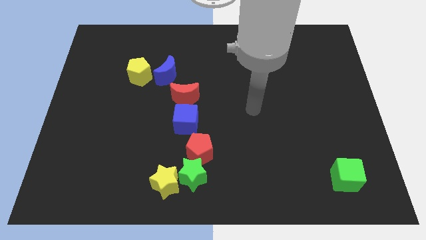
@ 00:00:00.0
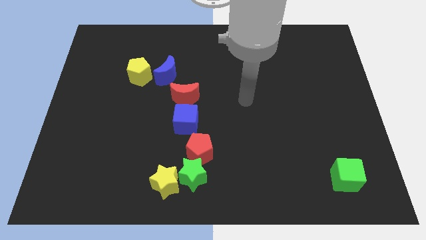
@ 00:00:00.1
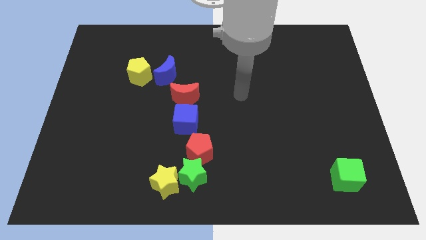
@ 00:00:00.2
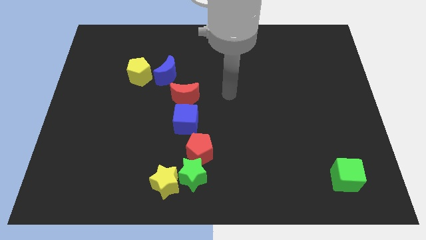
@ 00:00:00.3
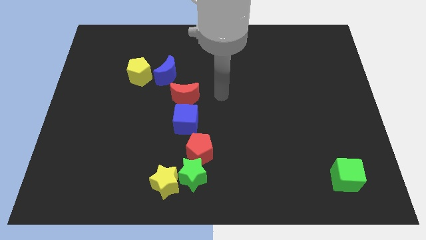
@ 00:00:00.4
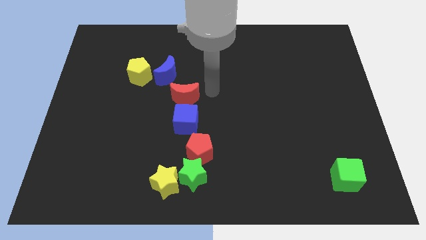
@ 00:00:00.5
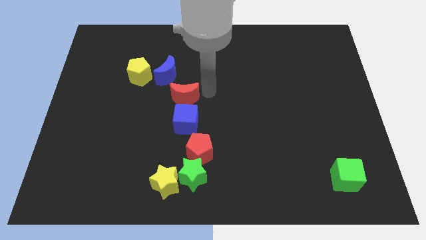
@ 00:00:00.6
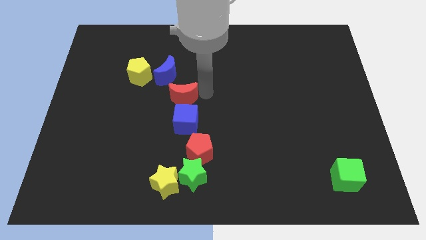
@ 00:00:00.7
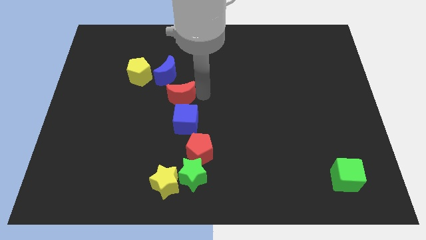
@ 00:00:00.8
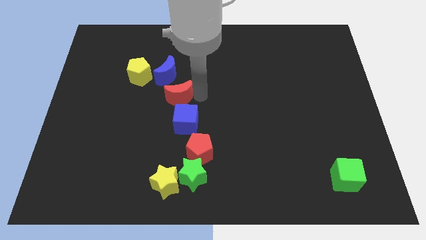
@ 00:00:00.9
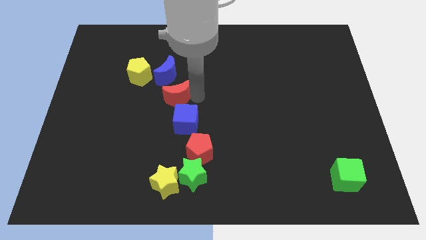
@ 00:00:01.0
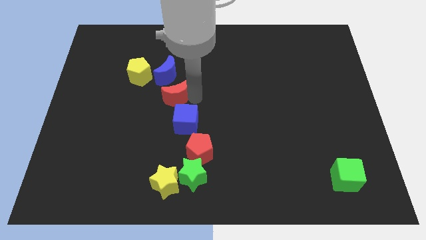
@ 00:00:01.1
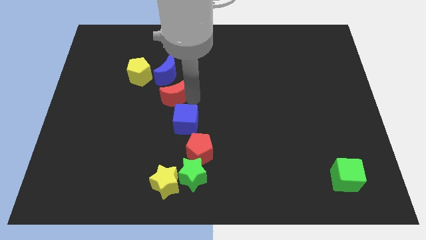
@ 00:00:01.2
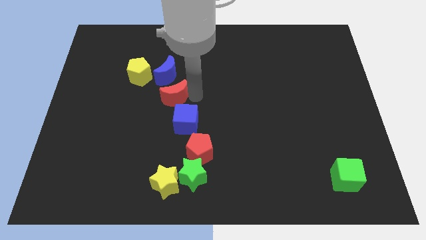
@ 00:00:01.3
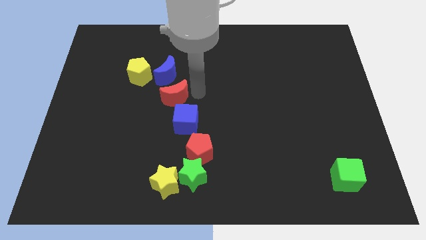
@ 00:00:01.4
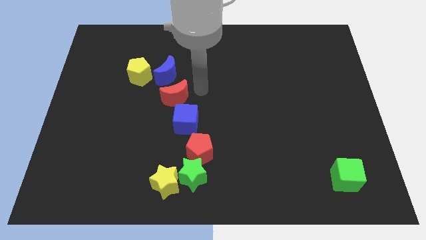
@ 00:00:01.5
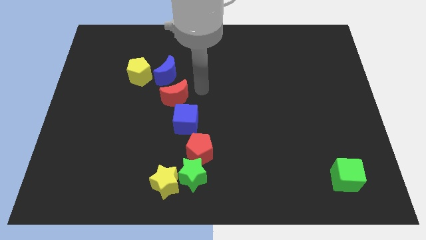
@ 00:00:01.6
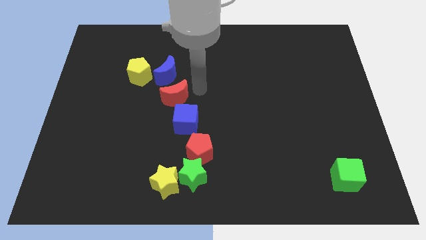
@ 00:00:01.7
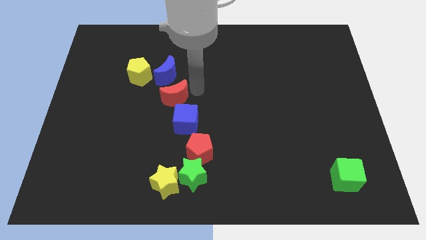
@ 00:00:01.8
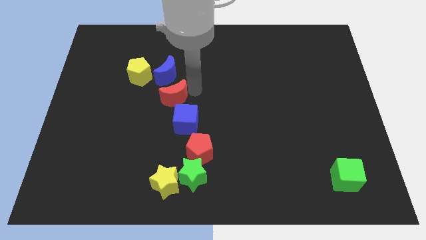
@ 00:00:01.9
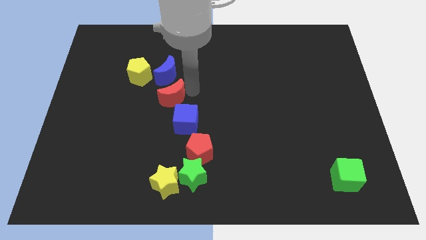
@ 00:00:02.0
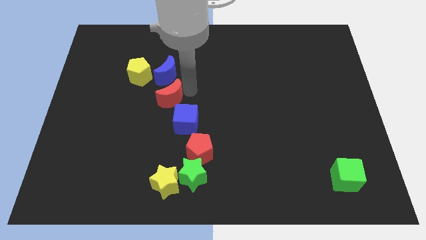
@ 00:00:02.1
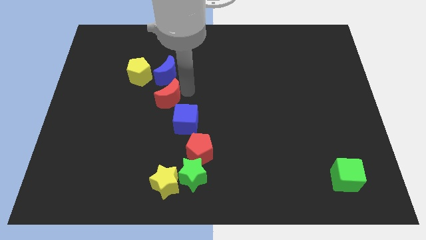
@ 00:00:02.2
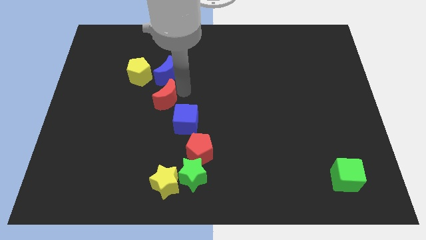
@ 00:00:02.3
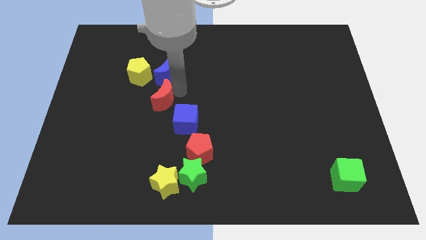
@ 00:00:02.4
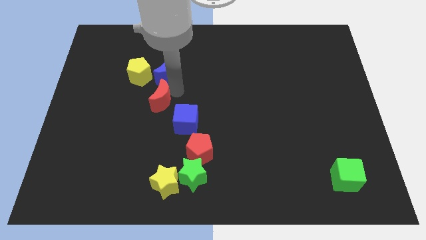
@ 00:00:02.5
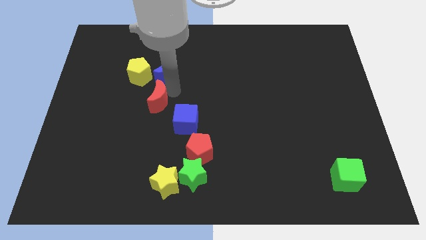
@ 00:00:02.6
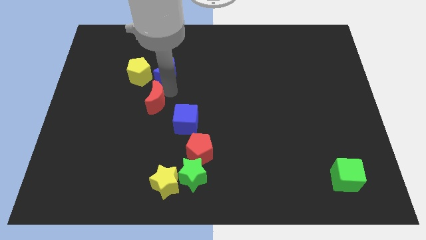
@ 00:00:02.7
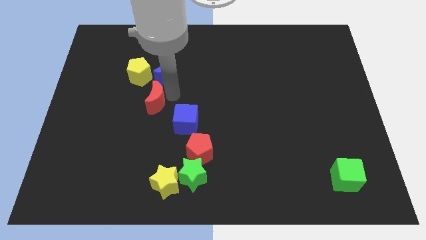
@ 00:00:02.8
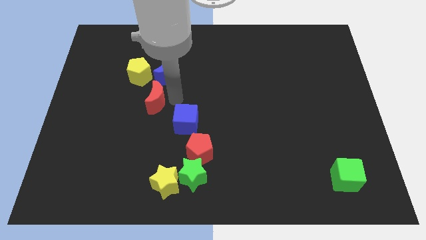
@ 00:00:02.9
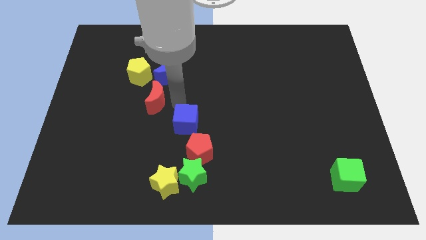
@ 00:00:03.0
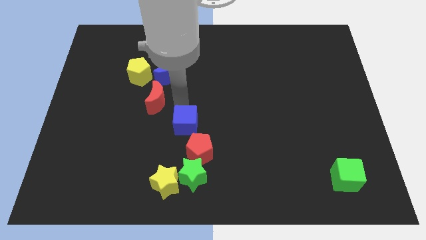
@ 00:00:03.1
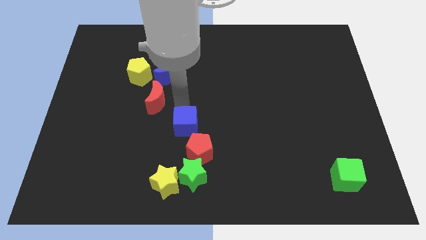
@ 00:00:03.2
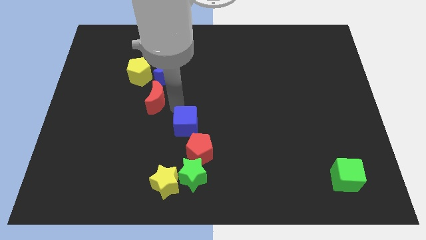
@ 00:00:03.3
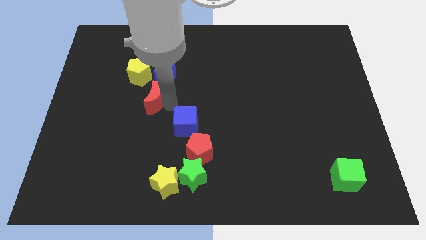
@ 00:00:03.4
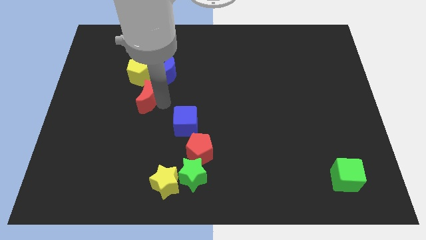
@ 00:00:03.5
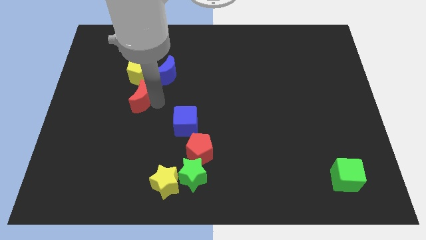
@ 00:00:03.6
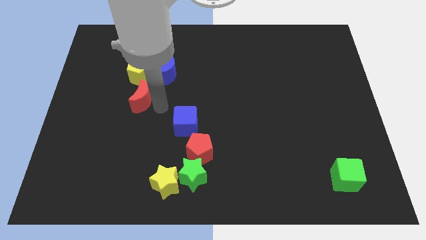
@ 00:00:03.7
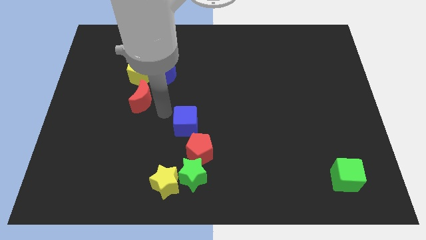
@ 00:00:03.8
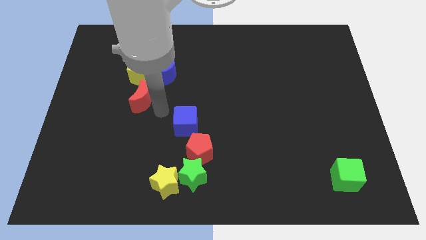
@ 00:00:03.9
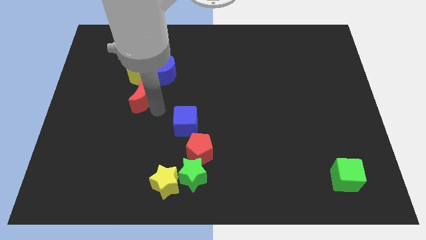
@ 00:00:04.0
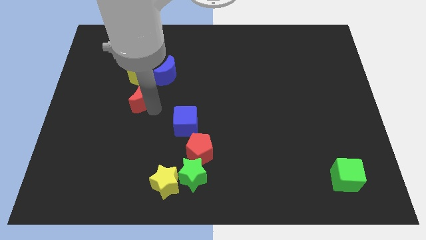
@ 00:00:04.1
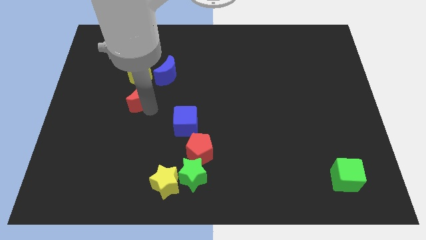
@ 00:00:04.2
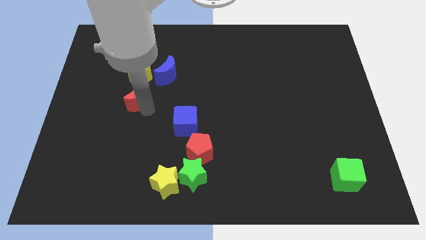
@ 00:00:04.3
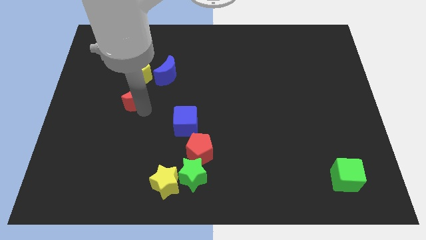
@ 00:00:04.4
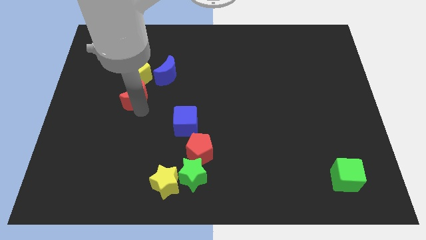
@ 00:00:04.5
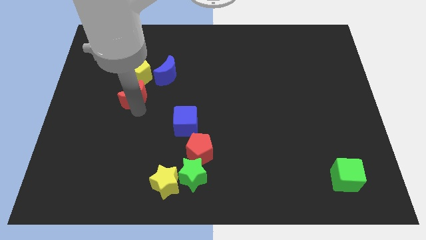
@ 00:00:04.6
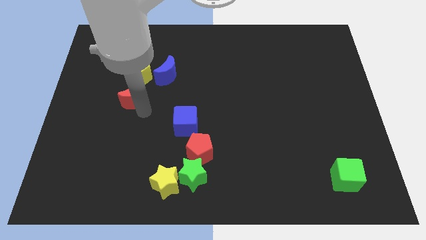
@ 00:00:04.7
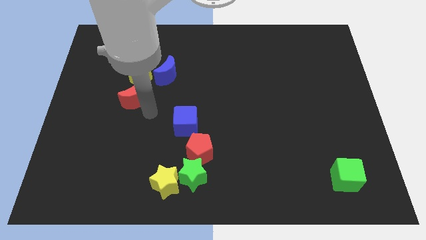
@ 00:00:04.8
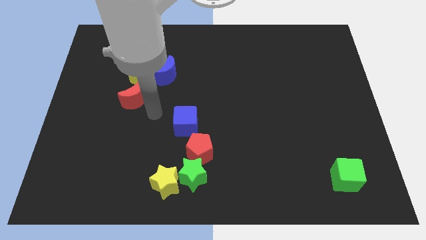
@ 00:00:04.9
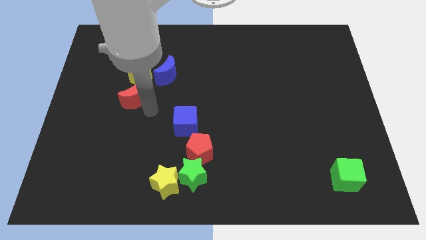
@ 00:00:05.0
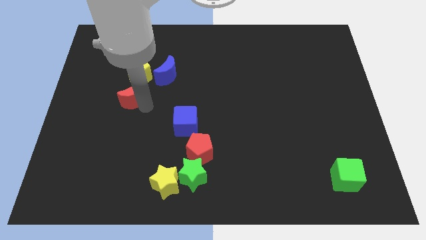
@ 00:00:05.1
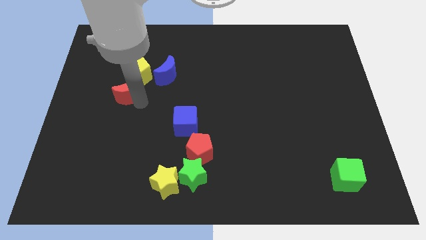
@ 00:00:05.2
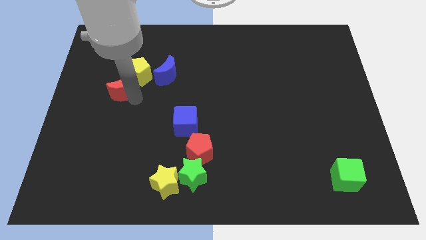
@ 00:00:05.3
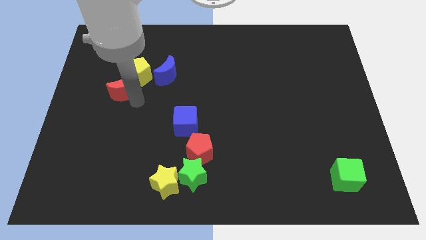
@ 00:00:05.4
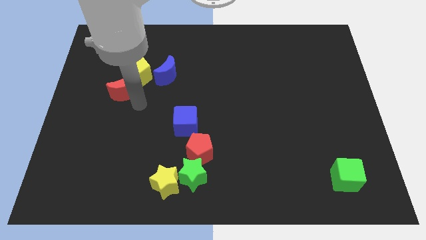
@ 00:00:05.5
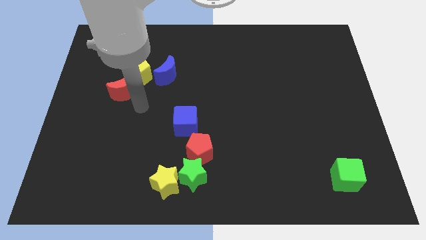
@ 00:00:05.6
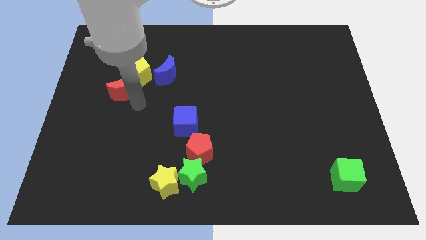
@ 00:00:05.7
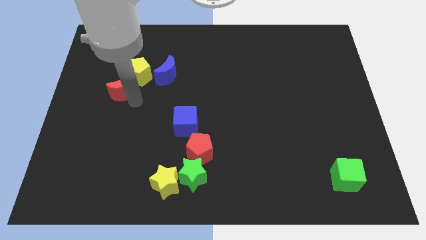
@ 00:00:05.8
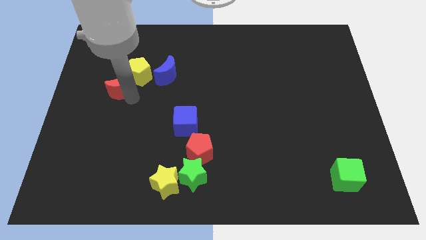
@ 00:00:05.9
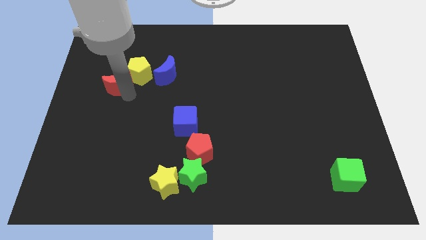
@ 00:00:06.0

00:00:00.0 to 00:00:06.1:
put the red moon to the left of the yellow pentagon

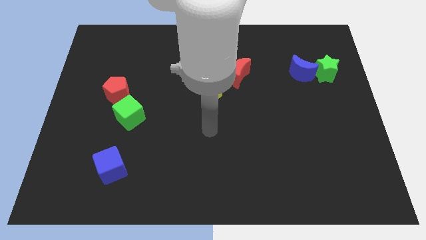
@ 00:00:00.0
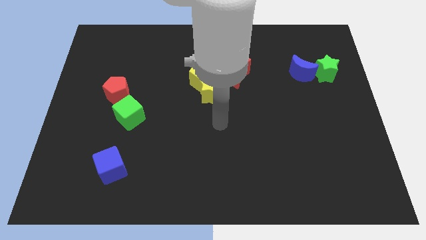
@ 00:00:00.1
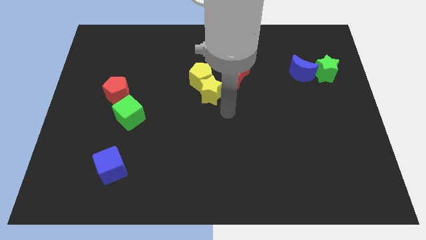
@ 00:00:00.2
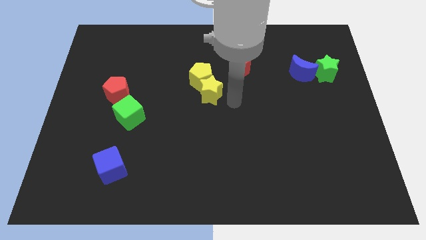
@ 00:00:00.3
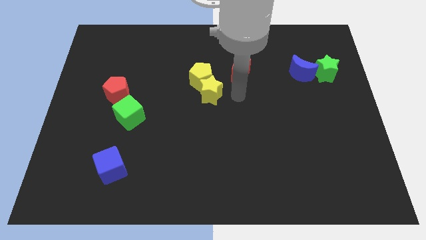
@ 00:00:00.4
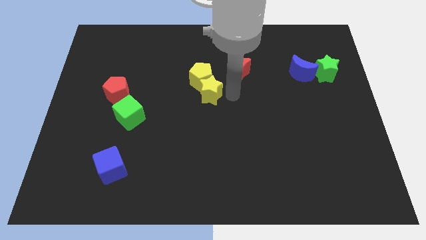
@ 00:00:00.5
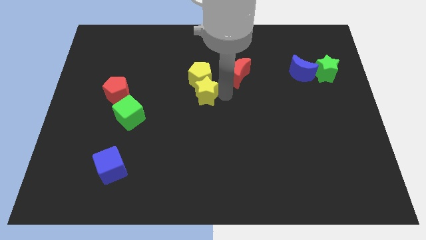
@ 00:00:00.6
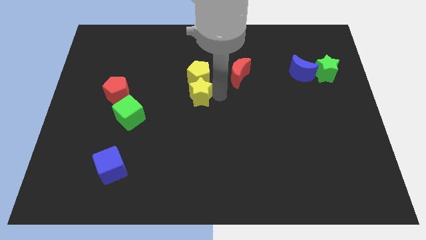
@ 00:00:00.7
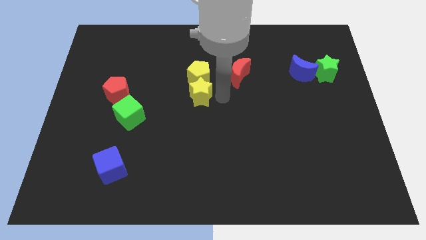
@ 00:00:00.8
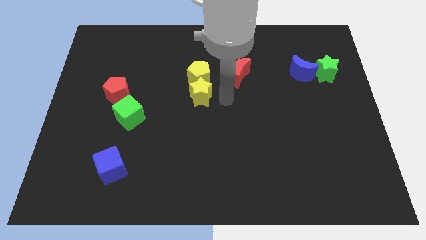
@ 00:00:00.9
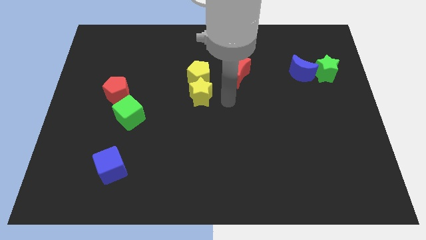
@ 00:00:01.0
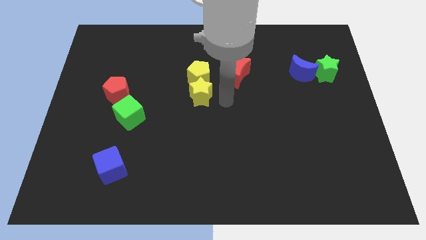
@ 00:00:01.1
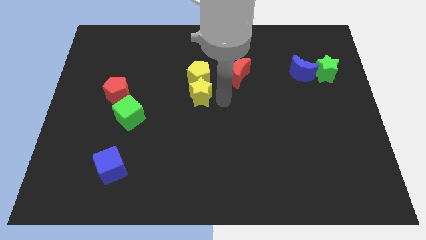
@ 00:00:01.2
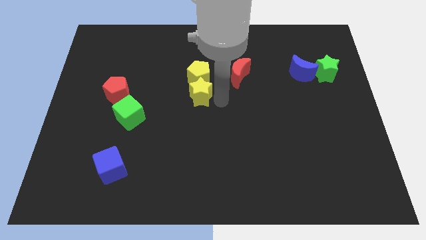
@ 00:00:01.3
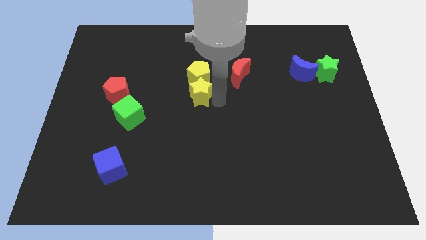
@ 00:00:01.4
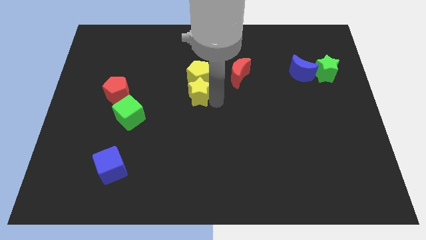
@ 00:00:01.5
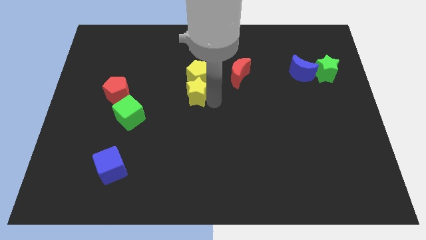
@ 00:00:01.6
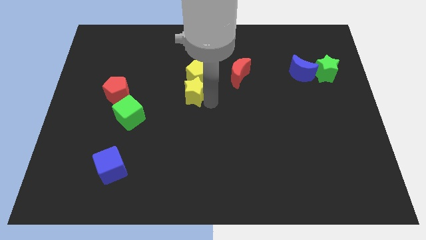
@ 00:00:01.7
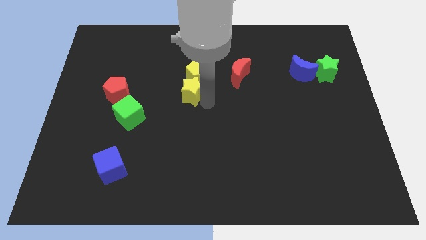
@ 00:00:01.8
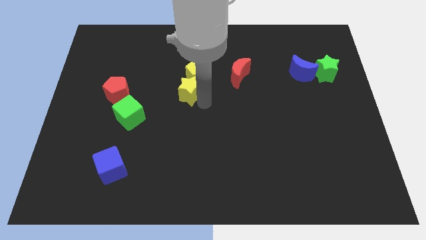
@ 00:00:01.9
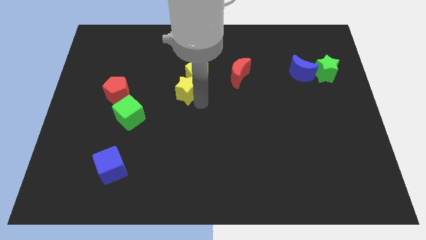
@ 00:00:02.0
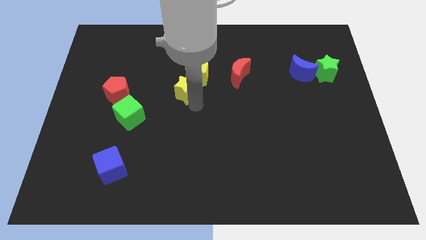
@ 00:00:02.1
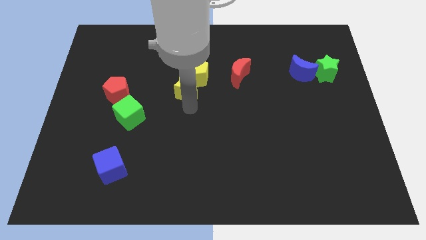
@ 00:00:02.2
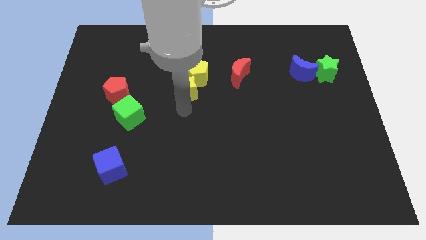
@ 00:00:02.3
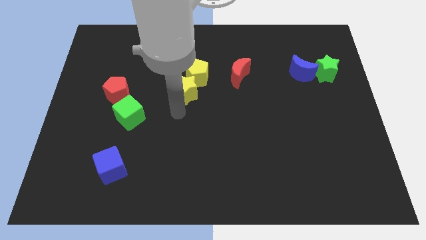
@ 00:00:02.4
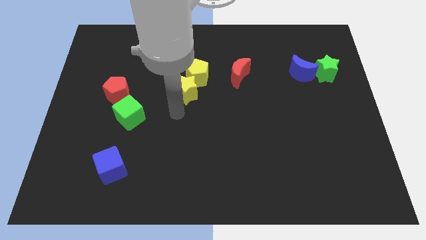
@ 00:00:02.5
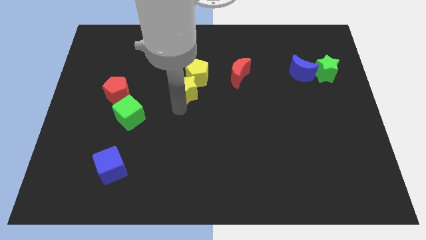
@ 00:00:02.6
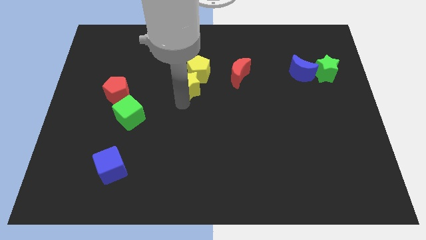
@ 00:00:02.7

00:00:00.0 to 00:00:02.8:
slide the yellow star just left of the red moon
